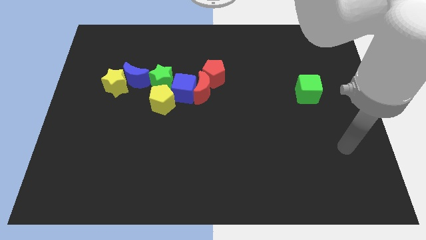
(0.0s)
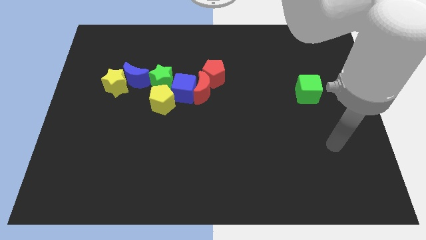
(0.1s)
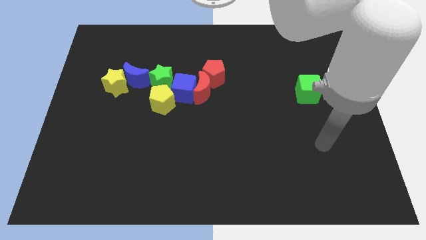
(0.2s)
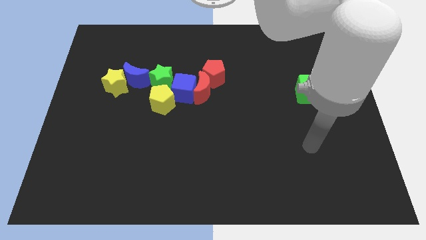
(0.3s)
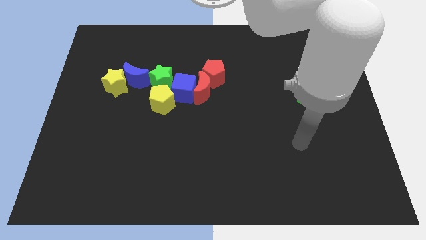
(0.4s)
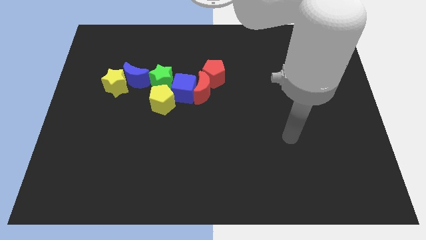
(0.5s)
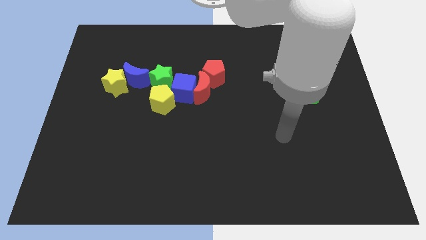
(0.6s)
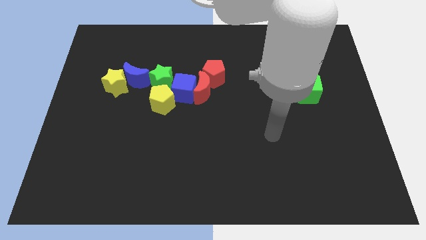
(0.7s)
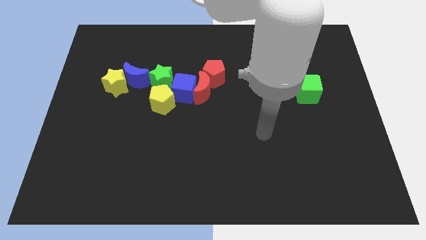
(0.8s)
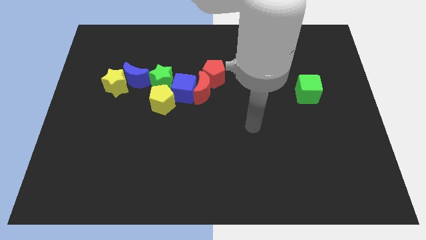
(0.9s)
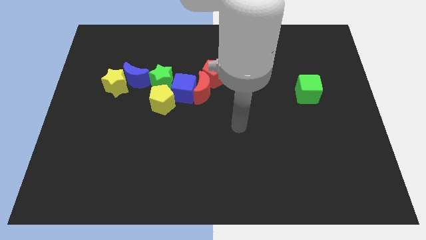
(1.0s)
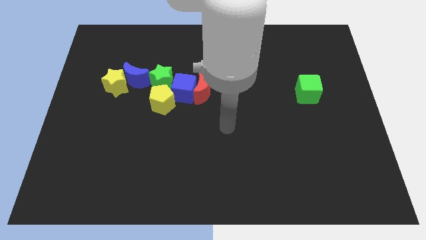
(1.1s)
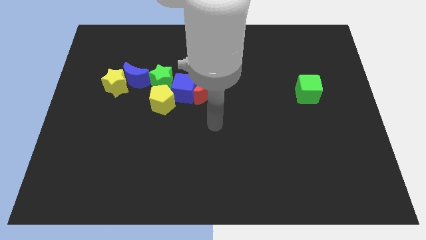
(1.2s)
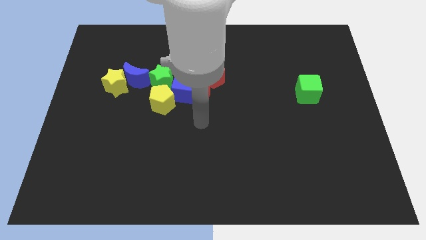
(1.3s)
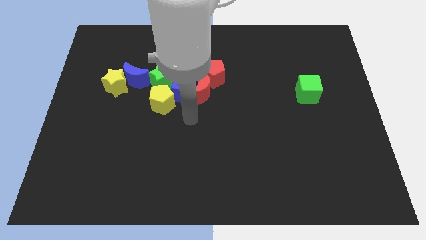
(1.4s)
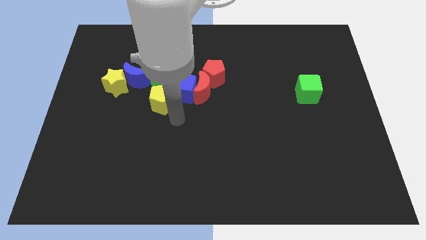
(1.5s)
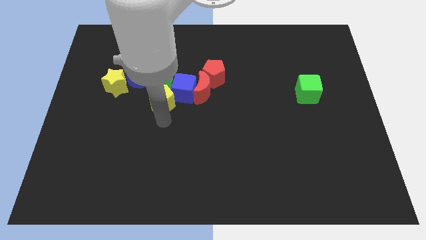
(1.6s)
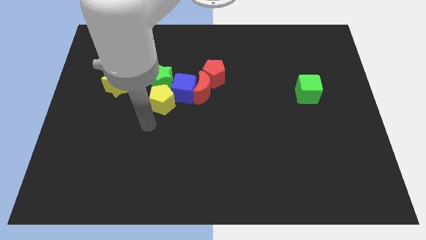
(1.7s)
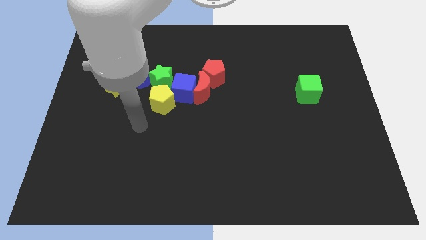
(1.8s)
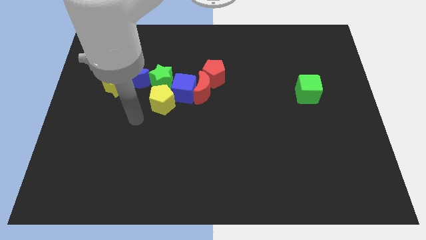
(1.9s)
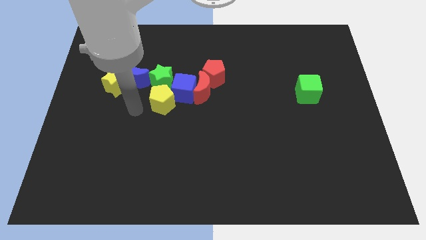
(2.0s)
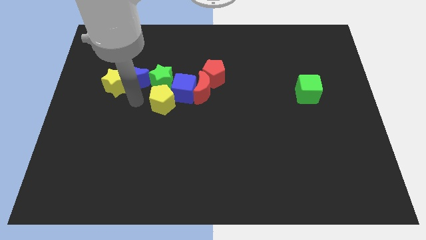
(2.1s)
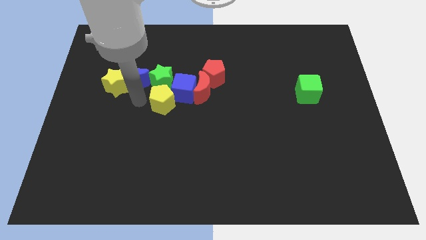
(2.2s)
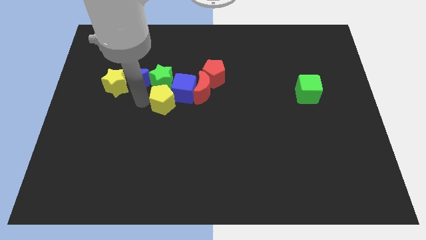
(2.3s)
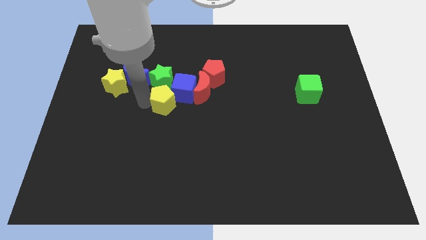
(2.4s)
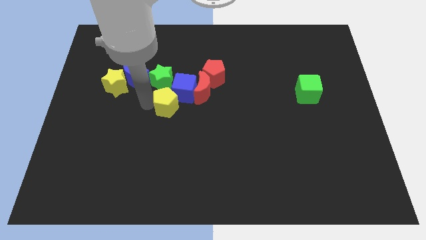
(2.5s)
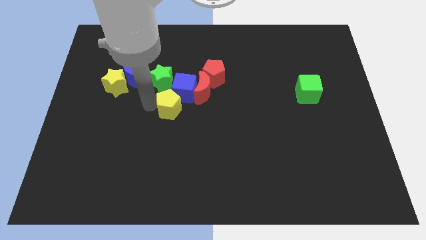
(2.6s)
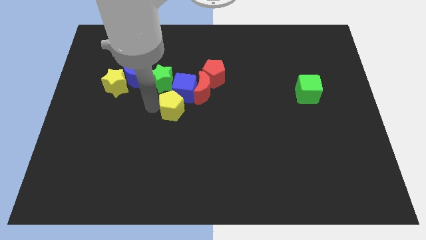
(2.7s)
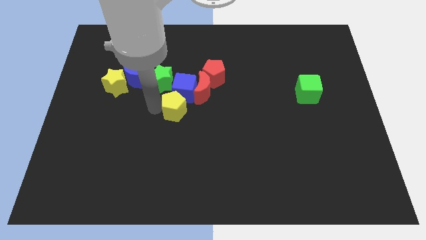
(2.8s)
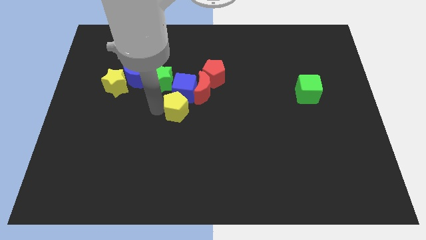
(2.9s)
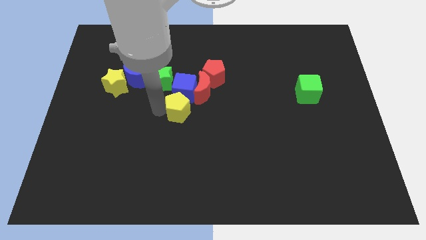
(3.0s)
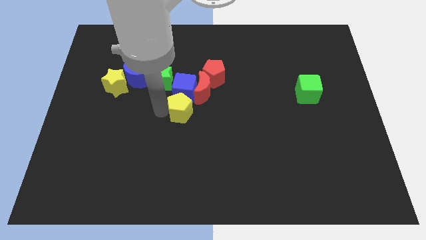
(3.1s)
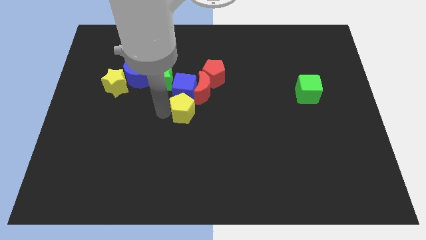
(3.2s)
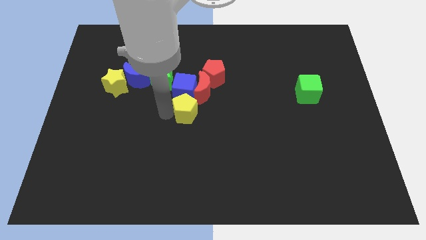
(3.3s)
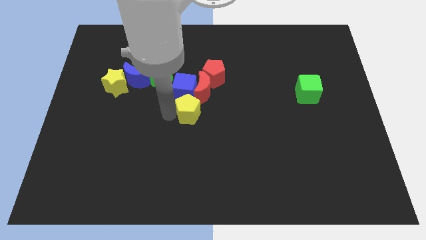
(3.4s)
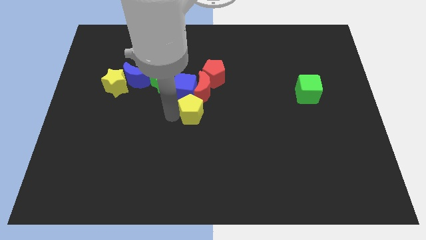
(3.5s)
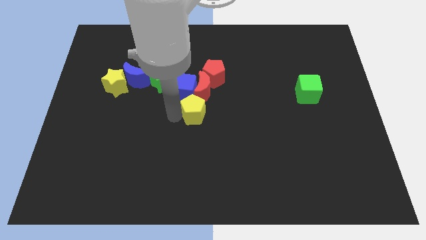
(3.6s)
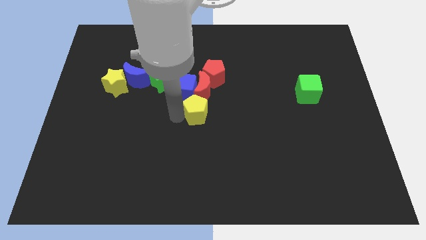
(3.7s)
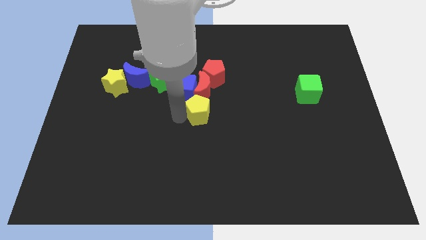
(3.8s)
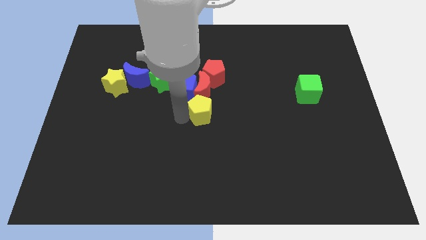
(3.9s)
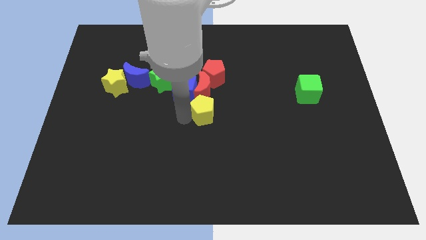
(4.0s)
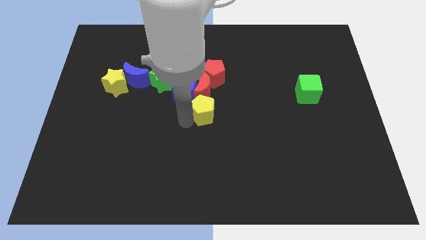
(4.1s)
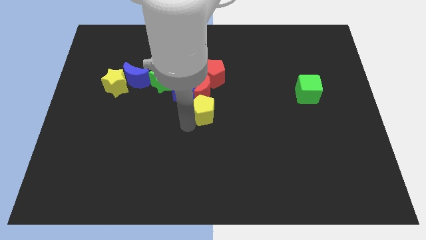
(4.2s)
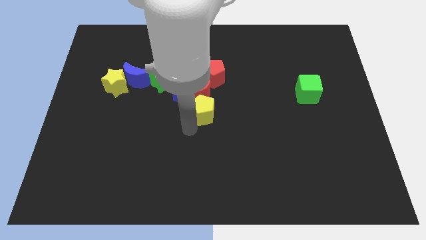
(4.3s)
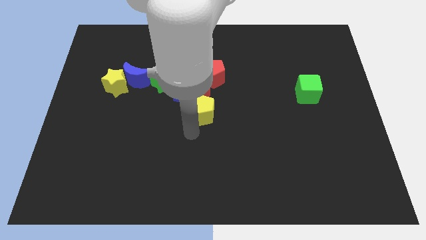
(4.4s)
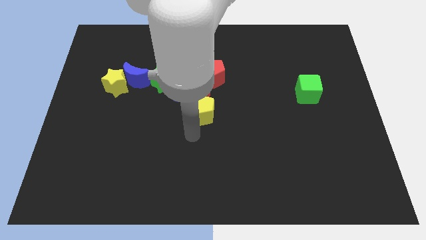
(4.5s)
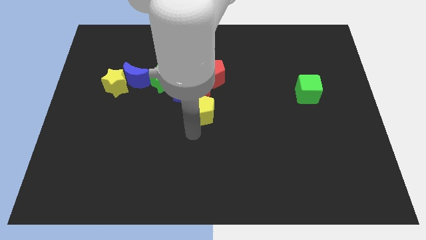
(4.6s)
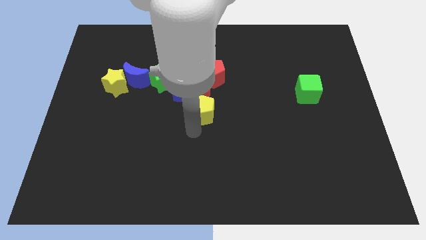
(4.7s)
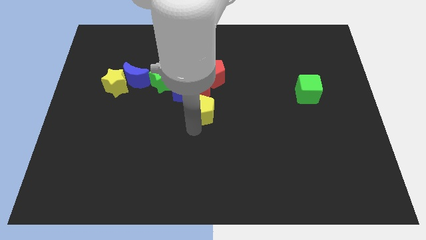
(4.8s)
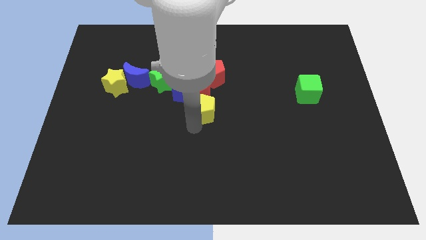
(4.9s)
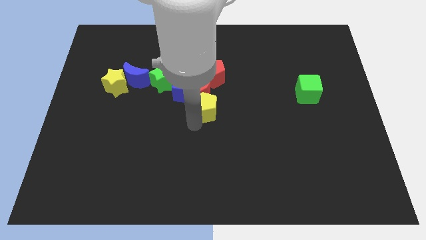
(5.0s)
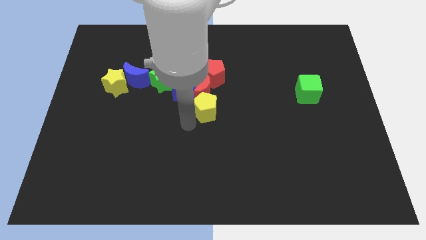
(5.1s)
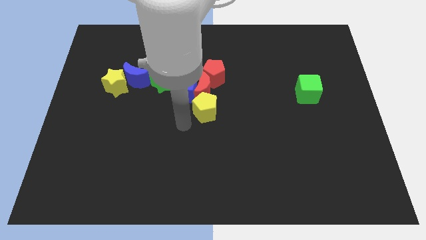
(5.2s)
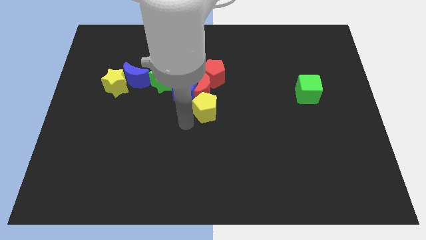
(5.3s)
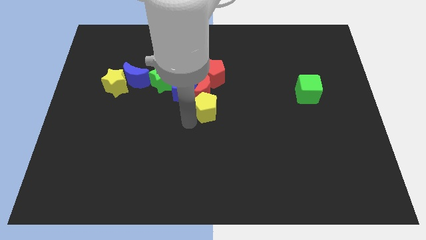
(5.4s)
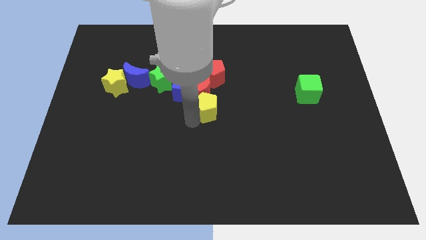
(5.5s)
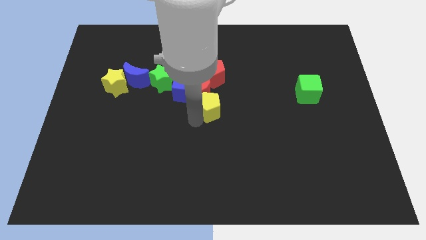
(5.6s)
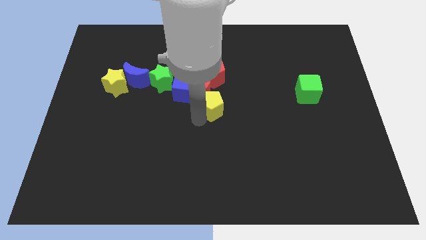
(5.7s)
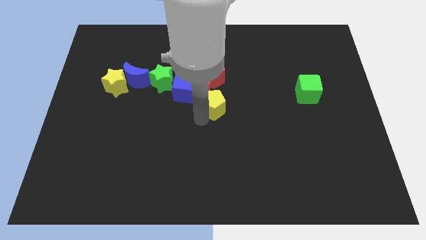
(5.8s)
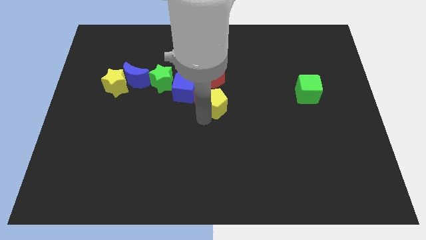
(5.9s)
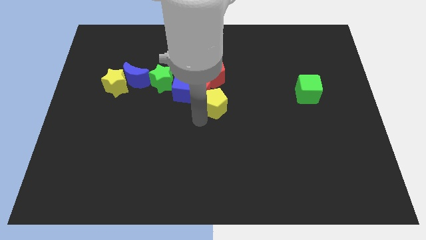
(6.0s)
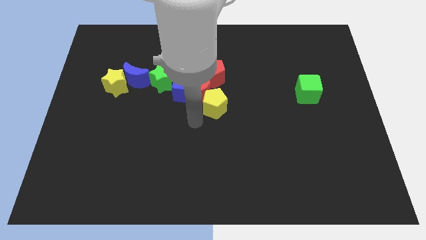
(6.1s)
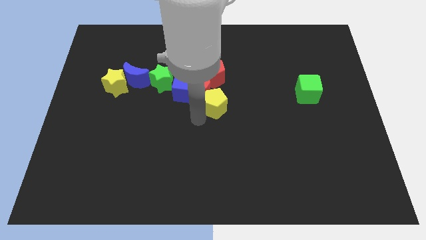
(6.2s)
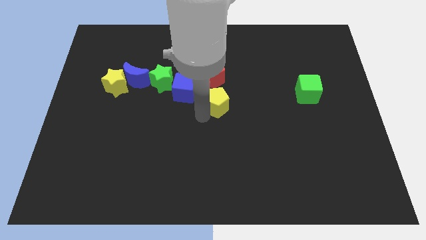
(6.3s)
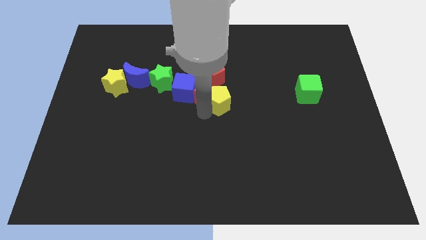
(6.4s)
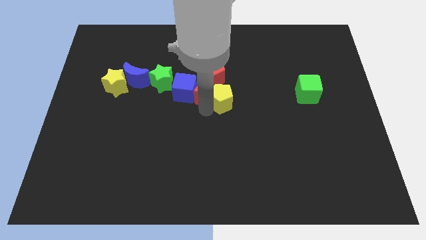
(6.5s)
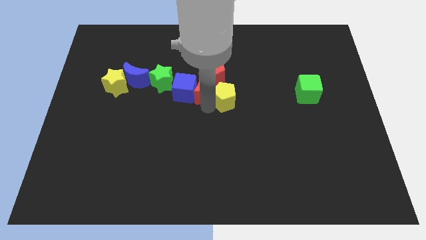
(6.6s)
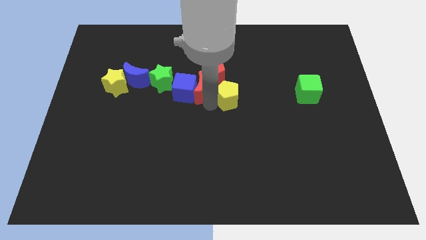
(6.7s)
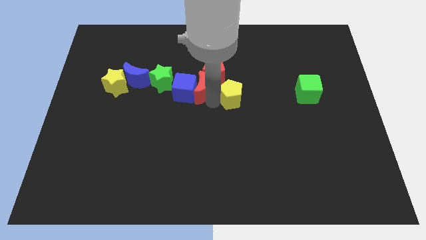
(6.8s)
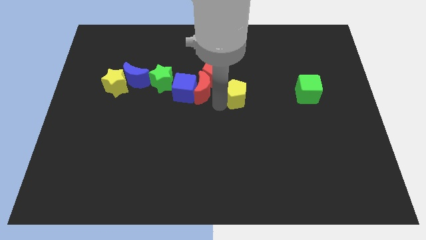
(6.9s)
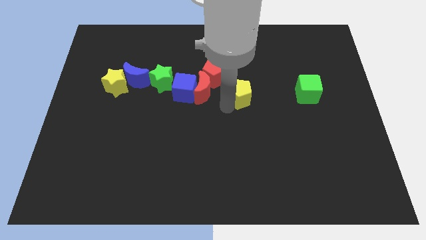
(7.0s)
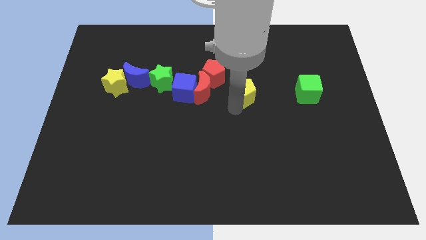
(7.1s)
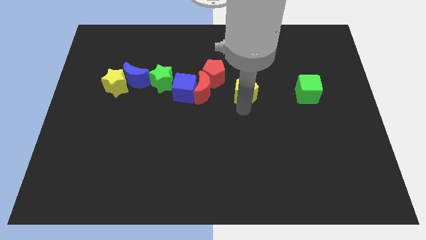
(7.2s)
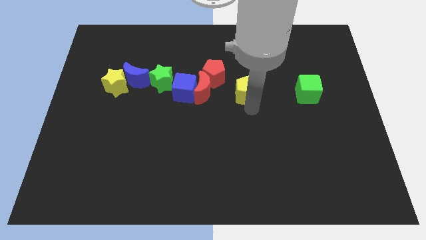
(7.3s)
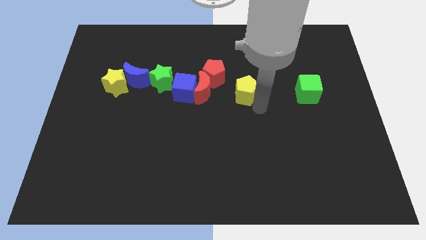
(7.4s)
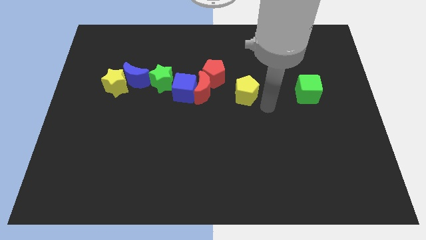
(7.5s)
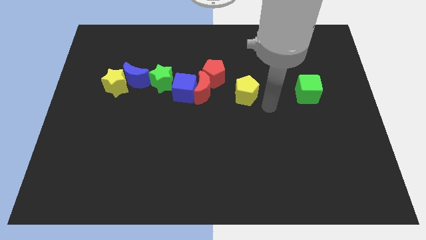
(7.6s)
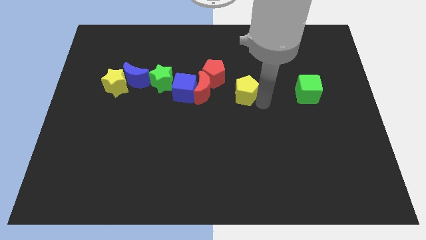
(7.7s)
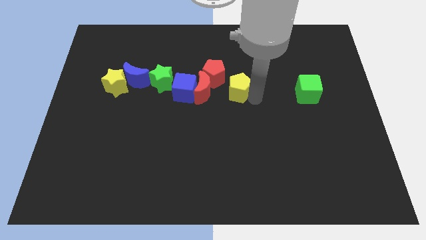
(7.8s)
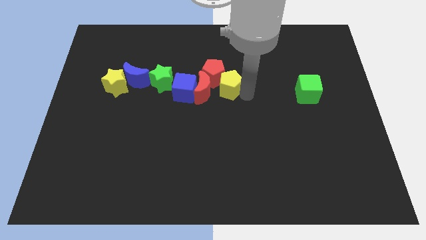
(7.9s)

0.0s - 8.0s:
put the yellow pentagon close to the red pentagon
